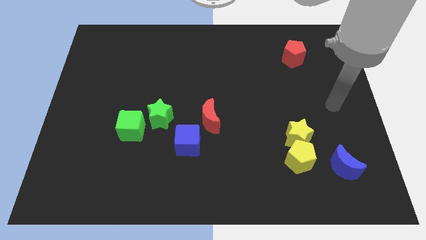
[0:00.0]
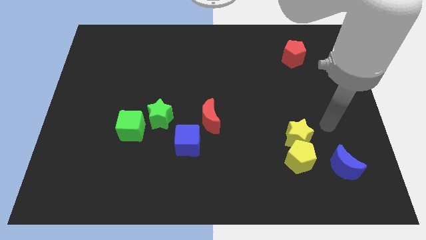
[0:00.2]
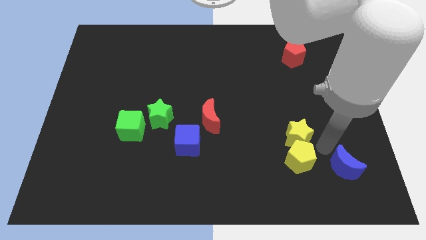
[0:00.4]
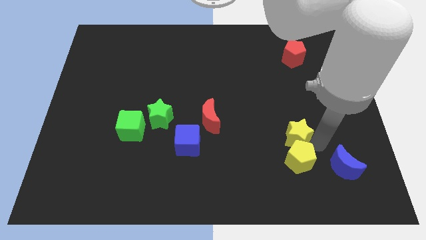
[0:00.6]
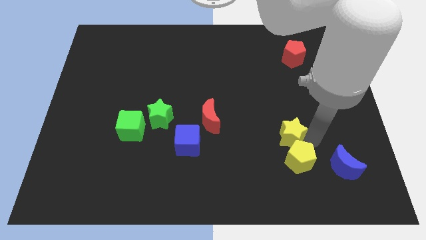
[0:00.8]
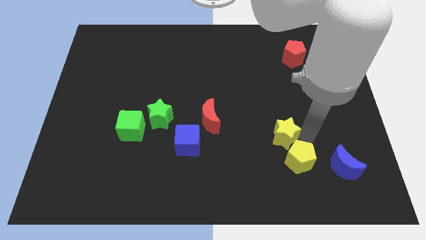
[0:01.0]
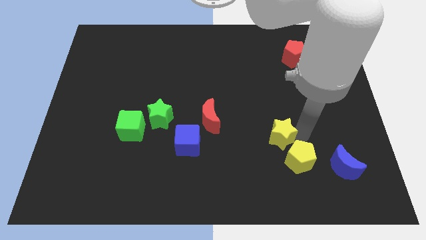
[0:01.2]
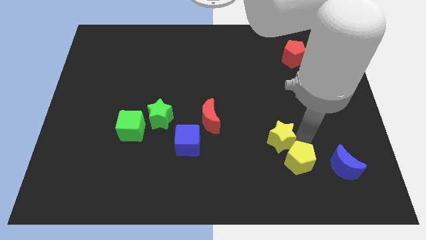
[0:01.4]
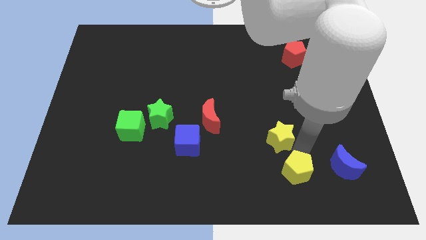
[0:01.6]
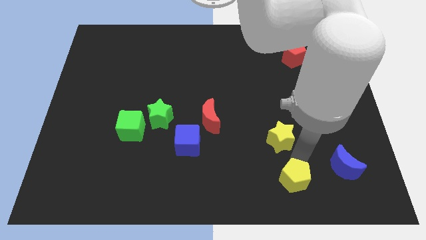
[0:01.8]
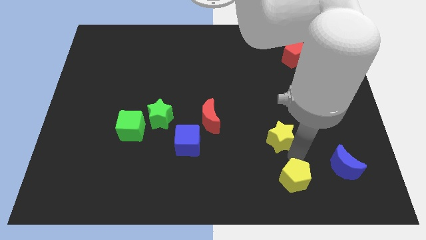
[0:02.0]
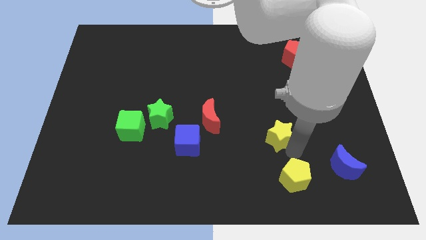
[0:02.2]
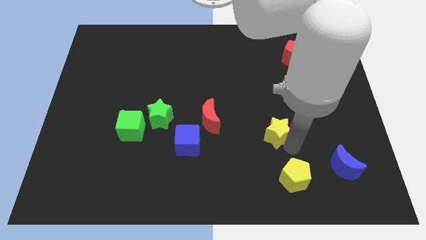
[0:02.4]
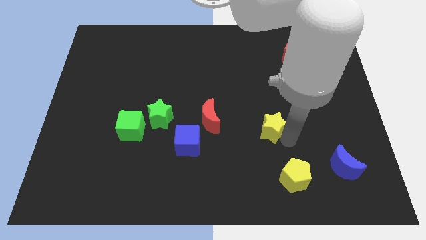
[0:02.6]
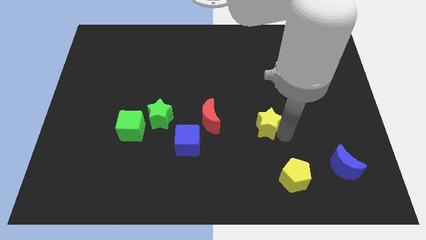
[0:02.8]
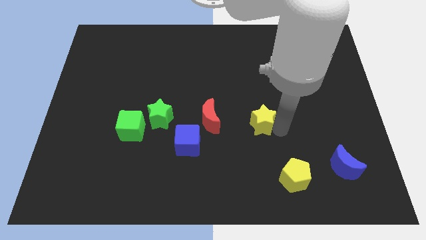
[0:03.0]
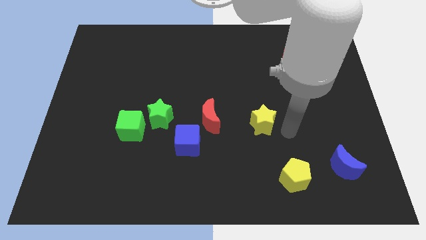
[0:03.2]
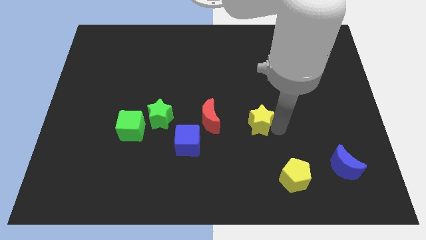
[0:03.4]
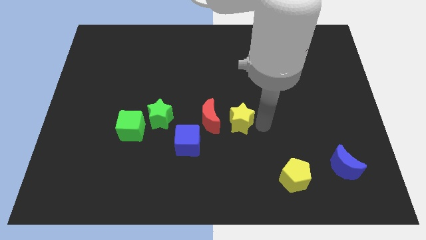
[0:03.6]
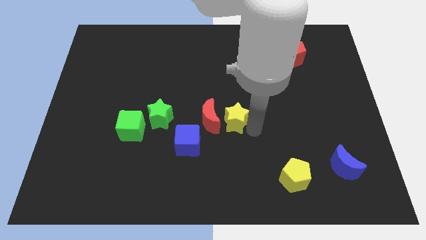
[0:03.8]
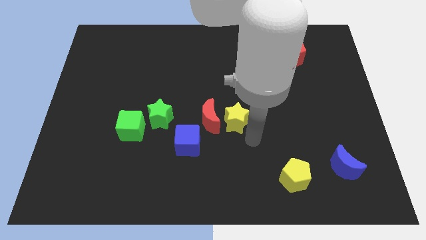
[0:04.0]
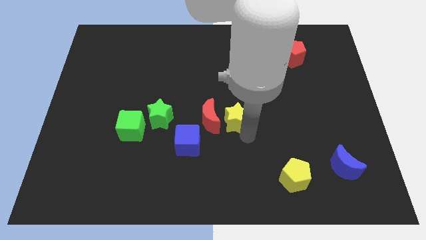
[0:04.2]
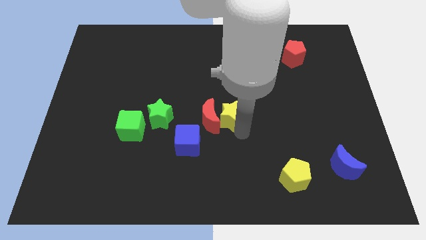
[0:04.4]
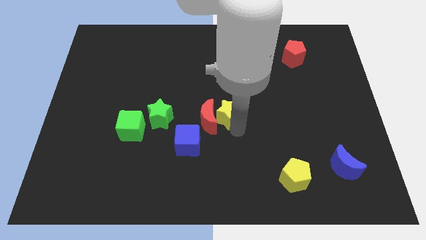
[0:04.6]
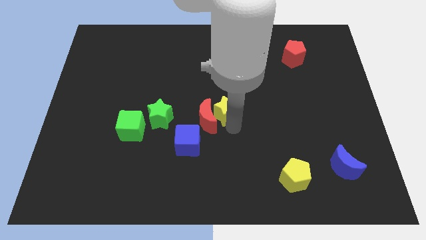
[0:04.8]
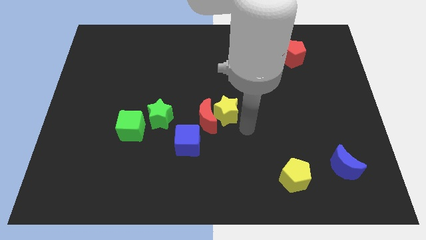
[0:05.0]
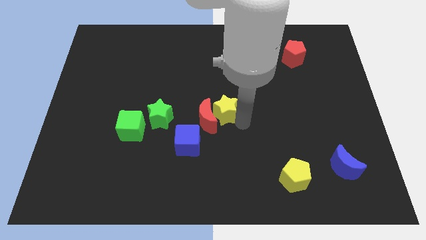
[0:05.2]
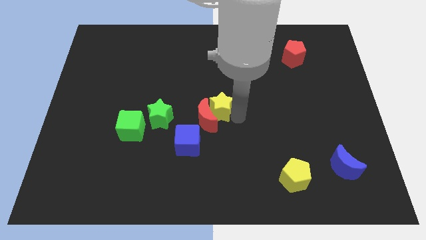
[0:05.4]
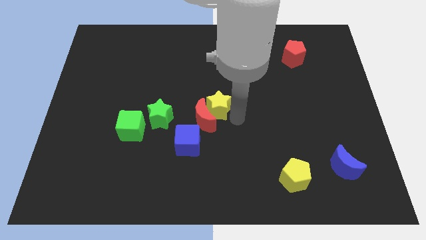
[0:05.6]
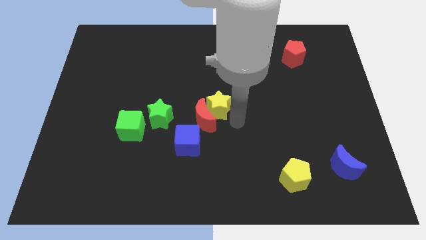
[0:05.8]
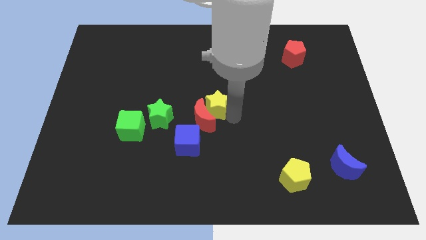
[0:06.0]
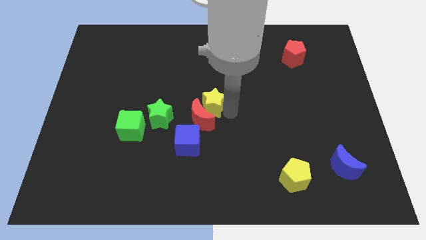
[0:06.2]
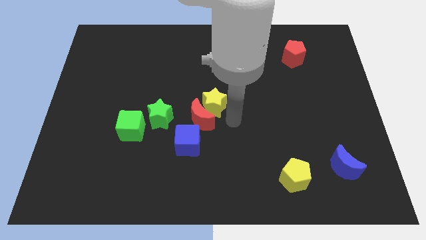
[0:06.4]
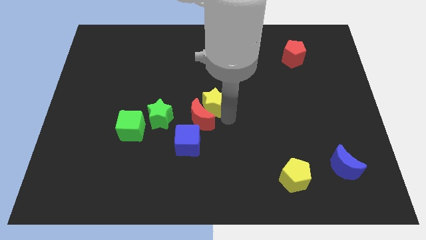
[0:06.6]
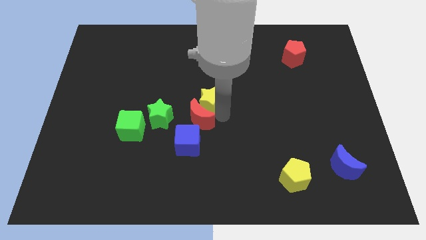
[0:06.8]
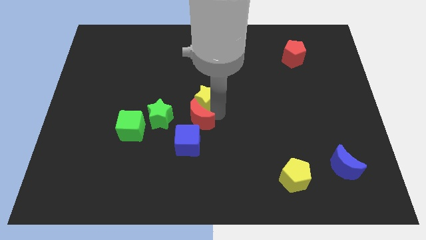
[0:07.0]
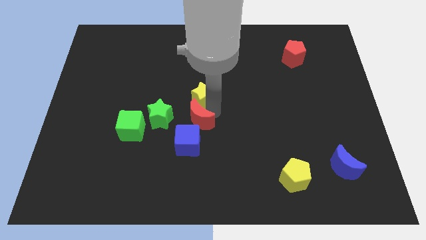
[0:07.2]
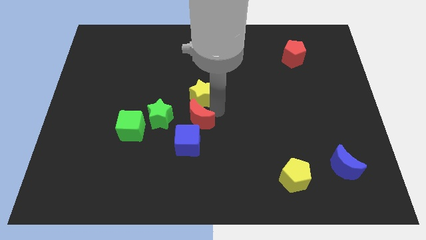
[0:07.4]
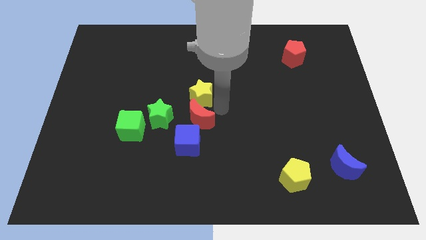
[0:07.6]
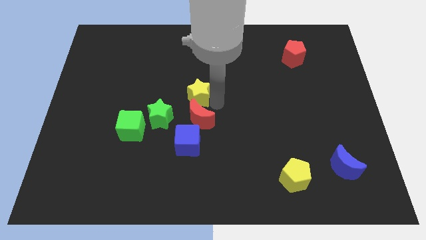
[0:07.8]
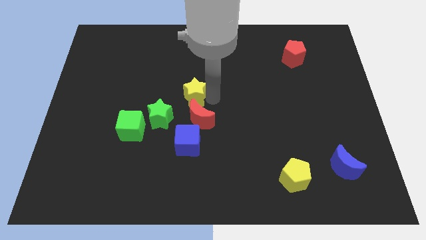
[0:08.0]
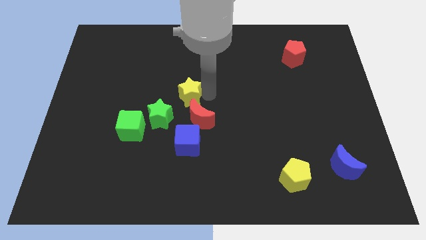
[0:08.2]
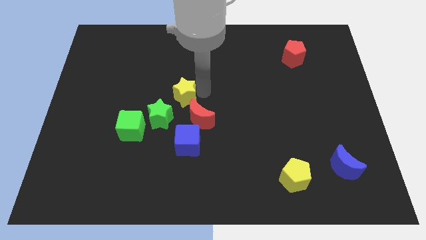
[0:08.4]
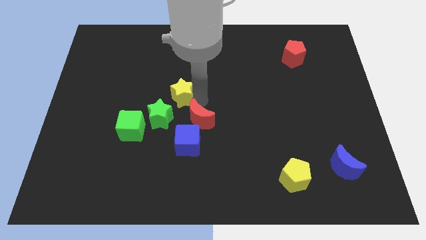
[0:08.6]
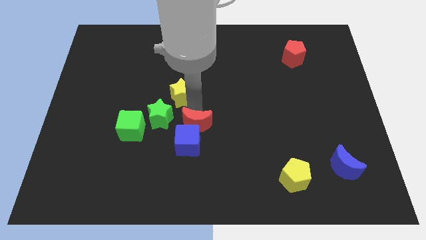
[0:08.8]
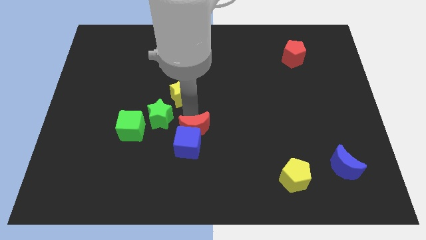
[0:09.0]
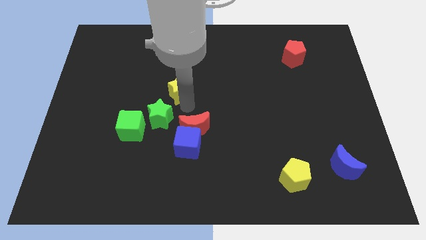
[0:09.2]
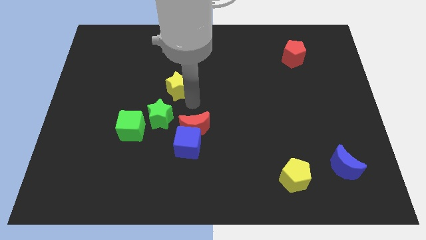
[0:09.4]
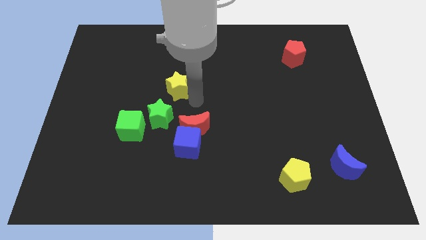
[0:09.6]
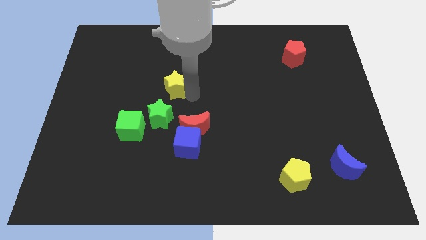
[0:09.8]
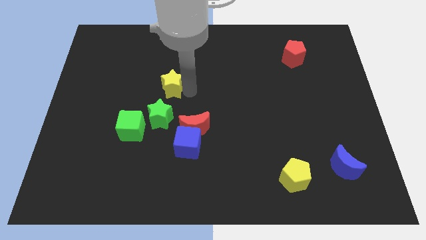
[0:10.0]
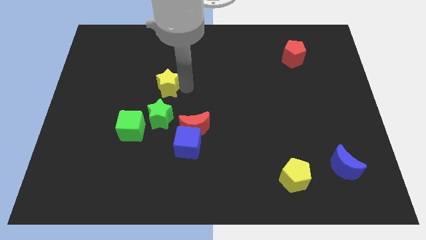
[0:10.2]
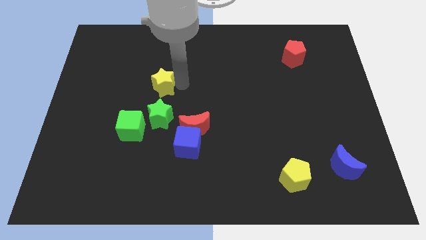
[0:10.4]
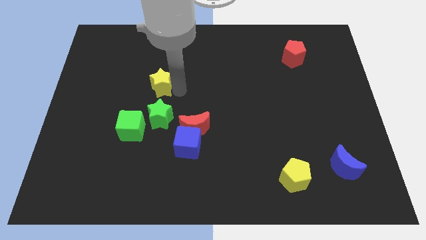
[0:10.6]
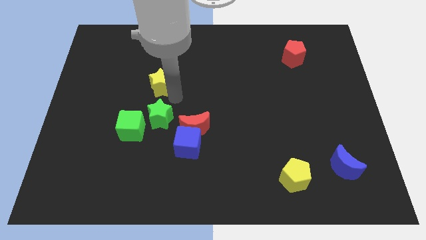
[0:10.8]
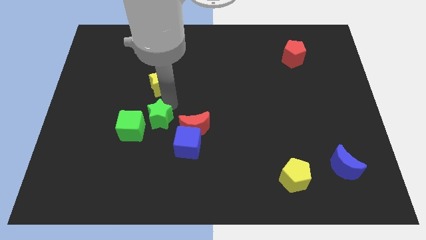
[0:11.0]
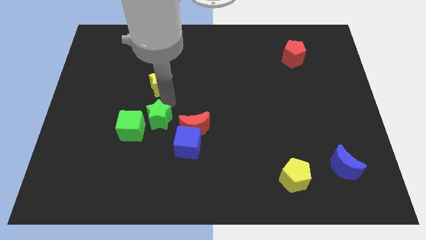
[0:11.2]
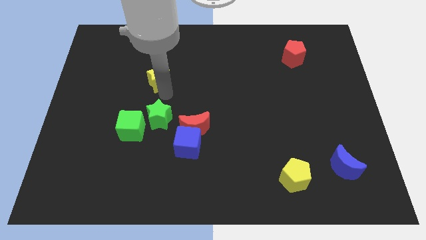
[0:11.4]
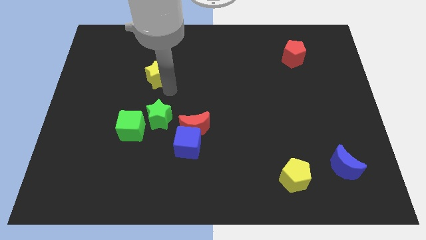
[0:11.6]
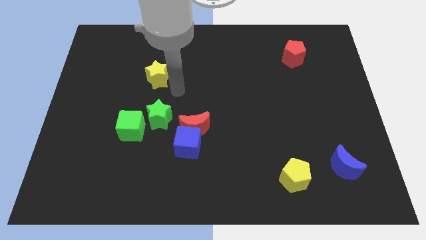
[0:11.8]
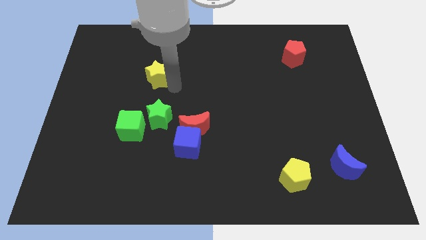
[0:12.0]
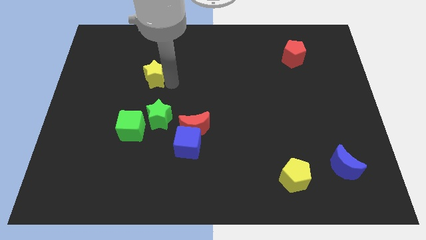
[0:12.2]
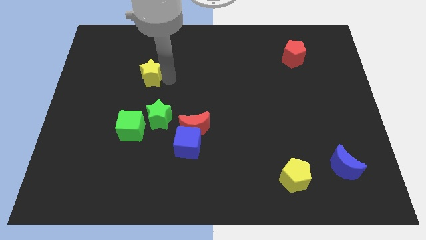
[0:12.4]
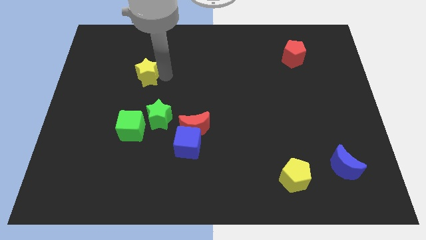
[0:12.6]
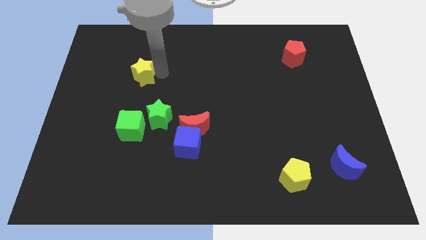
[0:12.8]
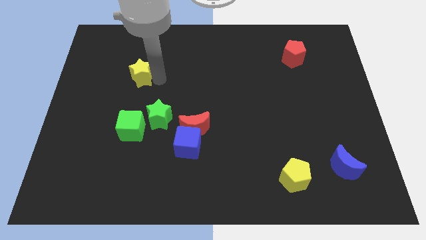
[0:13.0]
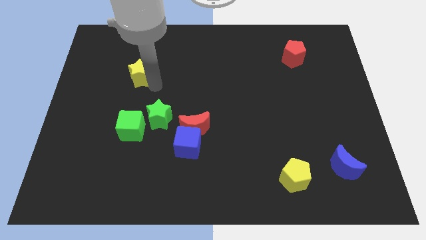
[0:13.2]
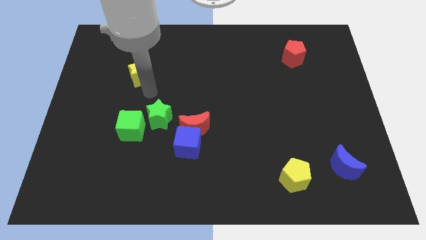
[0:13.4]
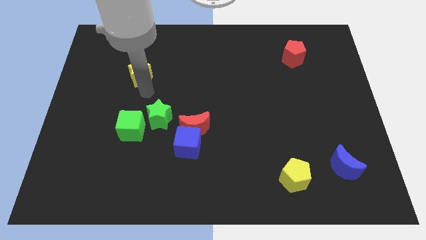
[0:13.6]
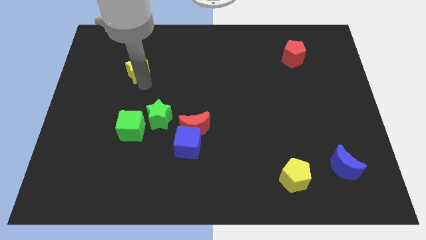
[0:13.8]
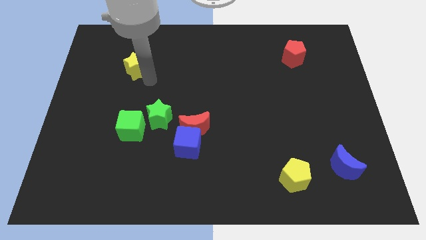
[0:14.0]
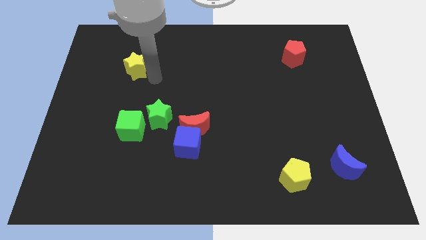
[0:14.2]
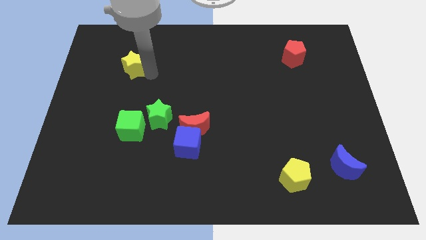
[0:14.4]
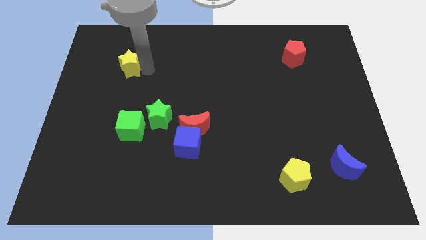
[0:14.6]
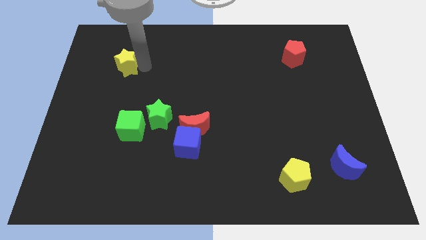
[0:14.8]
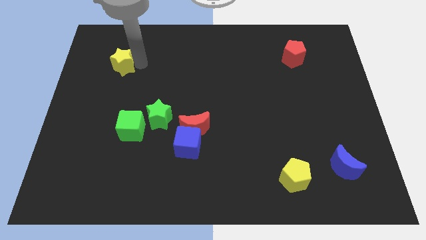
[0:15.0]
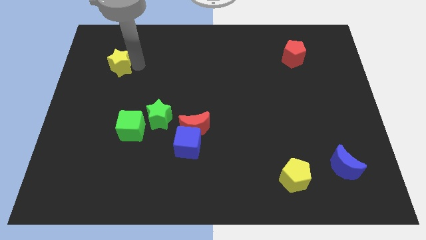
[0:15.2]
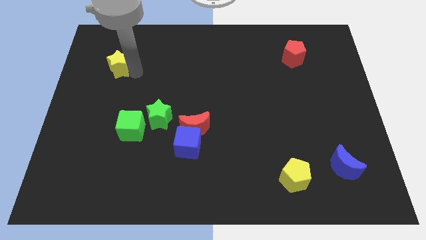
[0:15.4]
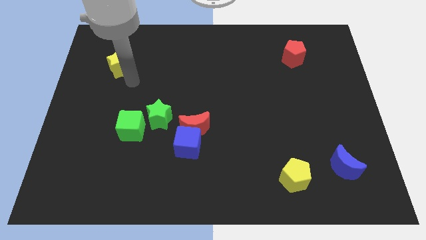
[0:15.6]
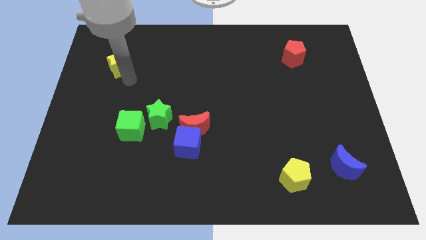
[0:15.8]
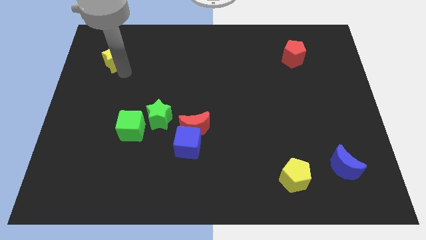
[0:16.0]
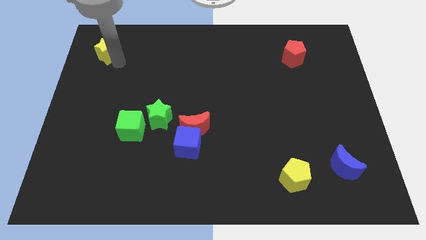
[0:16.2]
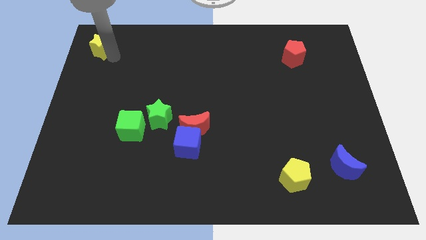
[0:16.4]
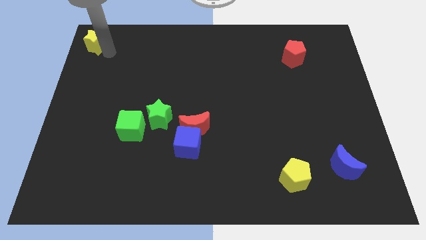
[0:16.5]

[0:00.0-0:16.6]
push the yellow star to the top left of the board
